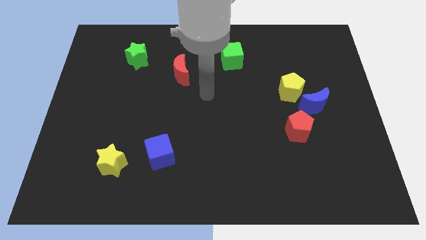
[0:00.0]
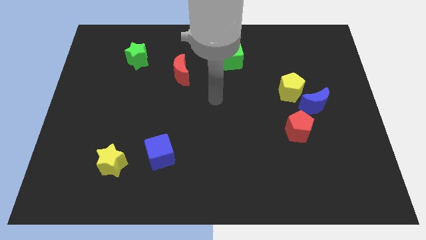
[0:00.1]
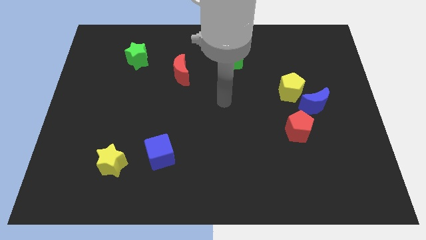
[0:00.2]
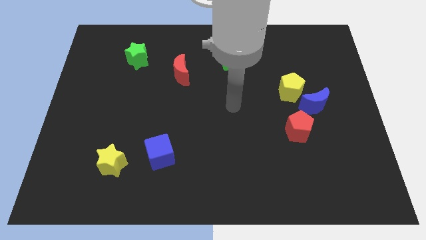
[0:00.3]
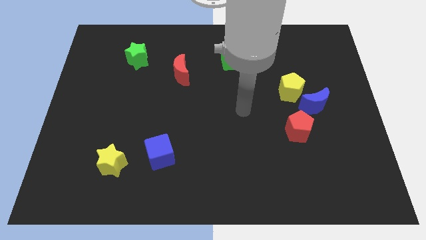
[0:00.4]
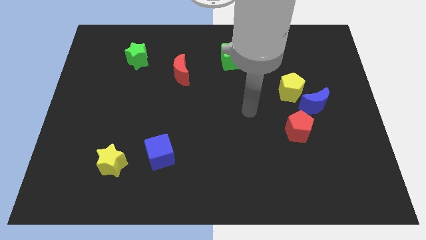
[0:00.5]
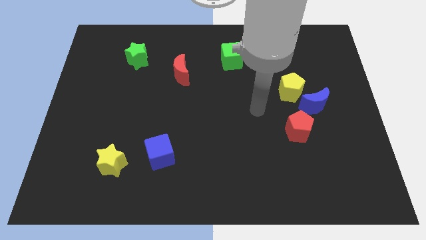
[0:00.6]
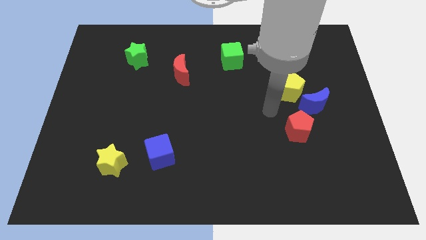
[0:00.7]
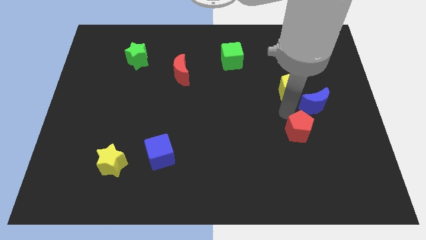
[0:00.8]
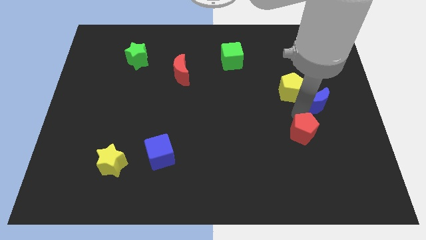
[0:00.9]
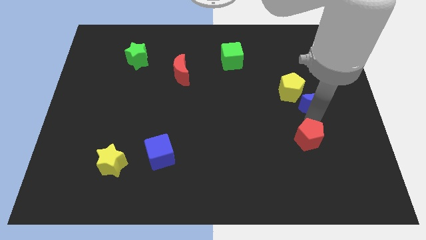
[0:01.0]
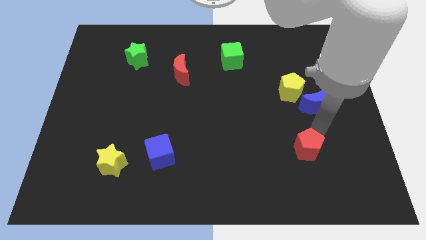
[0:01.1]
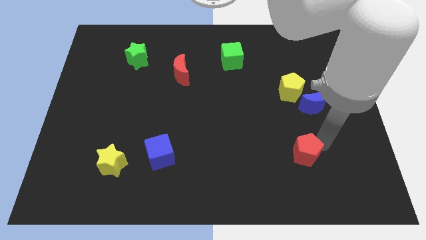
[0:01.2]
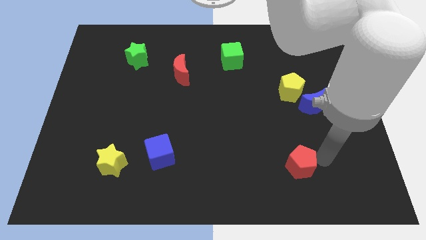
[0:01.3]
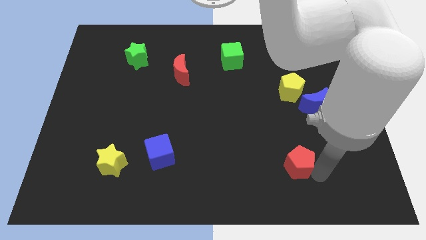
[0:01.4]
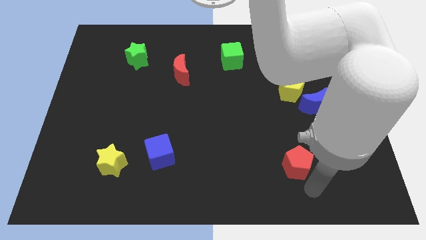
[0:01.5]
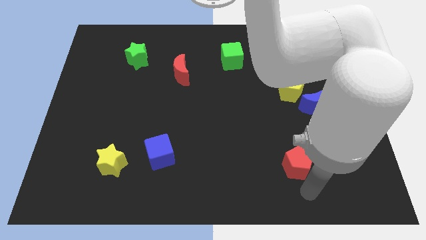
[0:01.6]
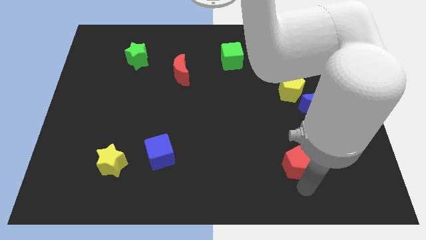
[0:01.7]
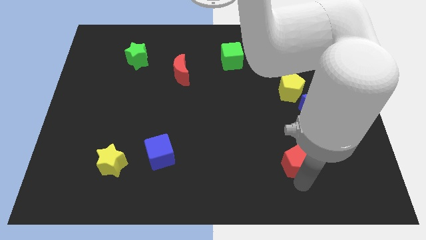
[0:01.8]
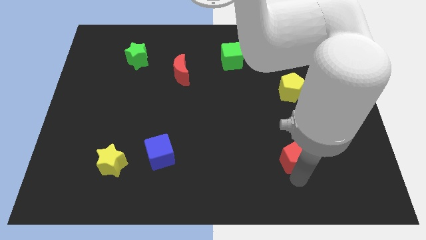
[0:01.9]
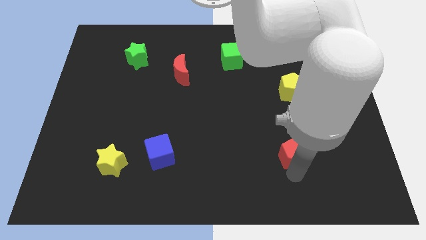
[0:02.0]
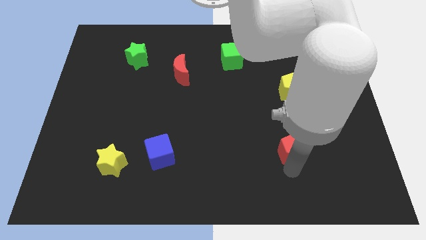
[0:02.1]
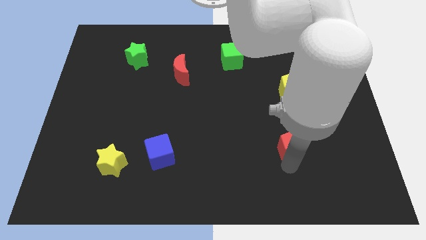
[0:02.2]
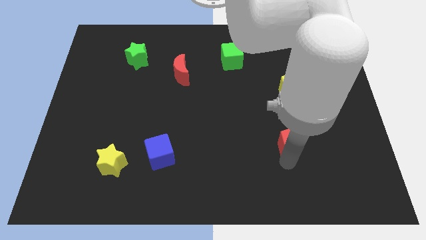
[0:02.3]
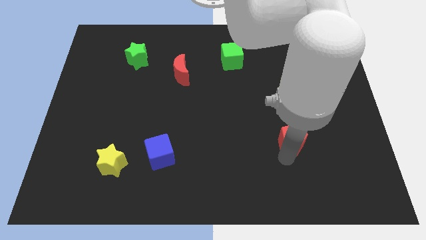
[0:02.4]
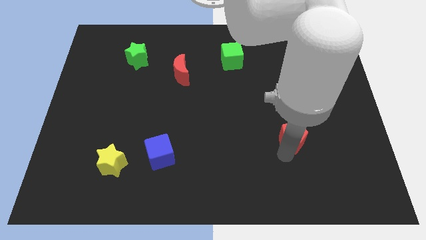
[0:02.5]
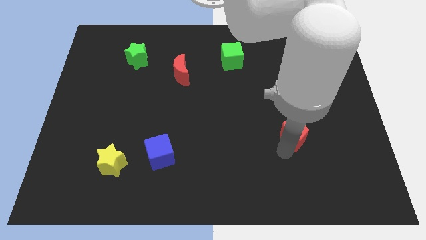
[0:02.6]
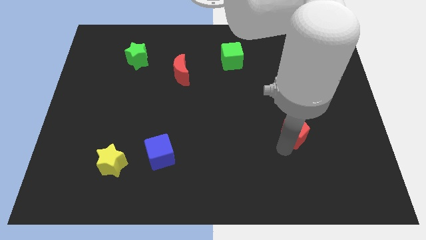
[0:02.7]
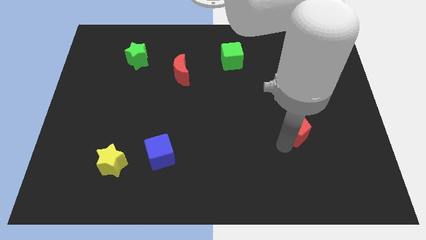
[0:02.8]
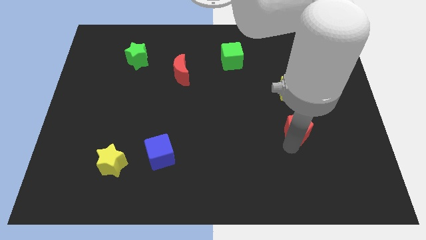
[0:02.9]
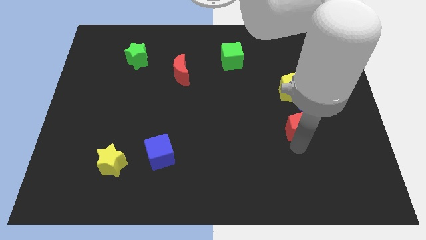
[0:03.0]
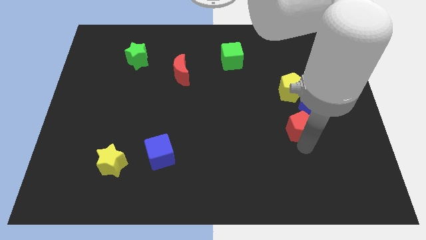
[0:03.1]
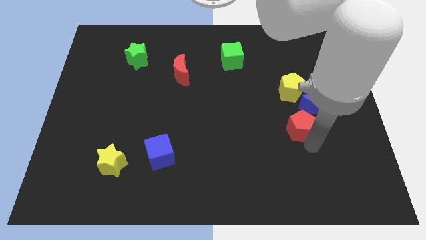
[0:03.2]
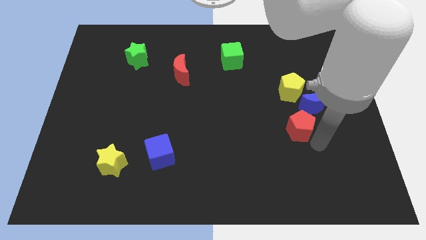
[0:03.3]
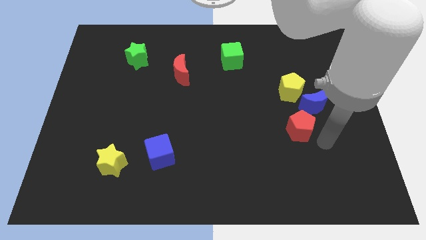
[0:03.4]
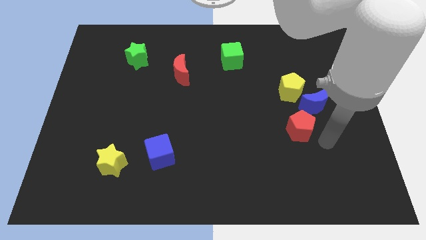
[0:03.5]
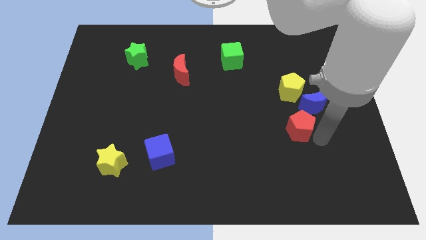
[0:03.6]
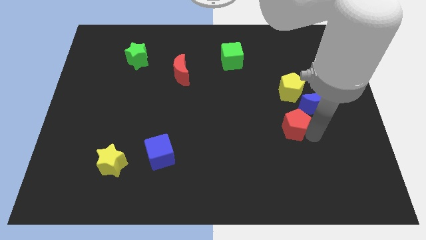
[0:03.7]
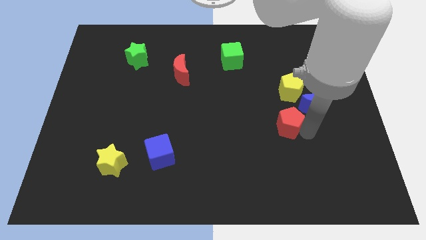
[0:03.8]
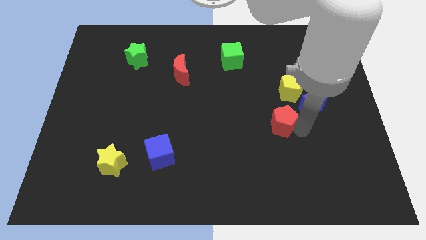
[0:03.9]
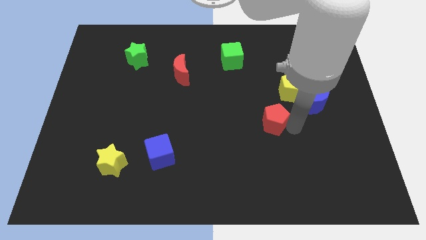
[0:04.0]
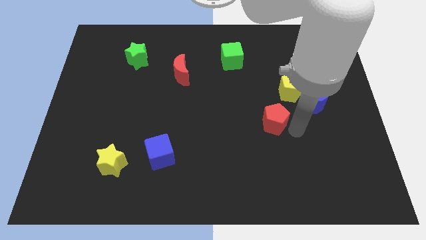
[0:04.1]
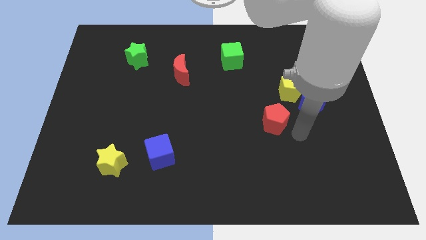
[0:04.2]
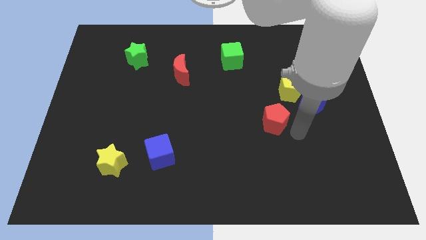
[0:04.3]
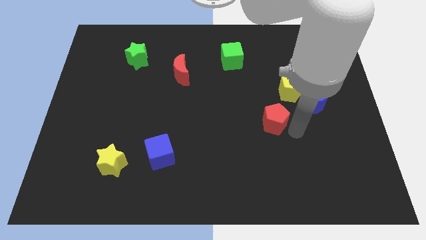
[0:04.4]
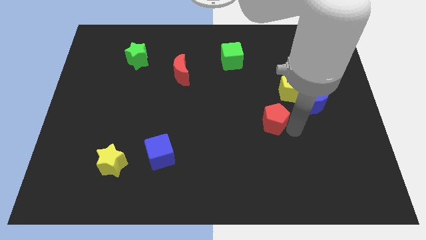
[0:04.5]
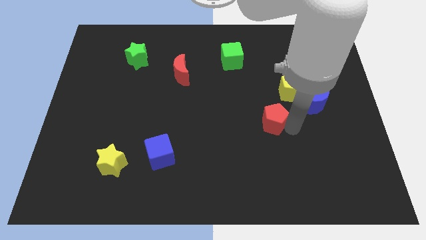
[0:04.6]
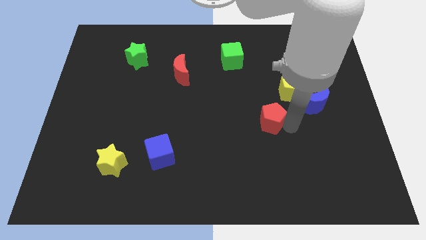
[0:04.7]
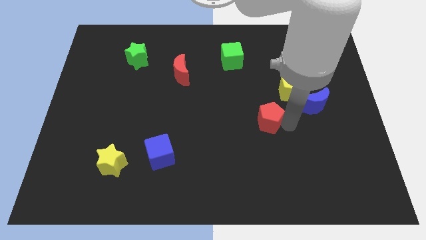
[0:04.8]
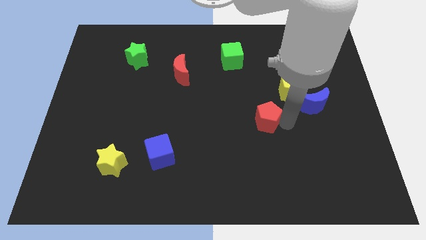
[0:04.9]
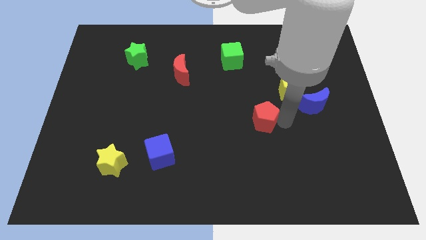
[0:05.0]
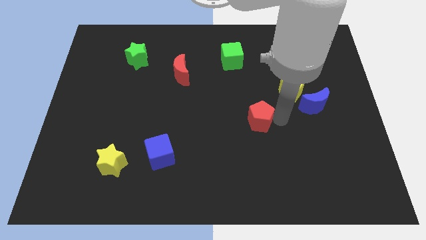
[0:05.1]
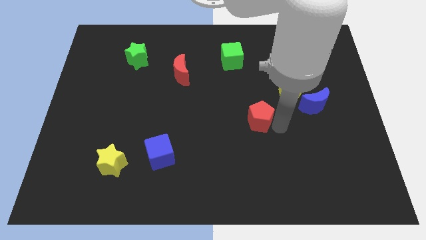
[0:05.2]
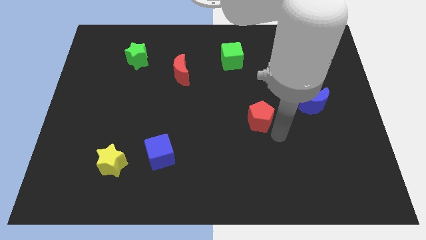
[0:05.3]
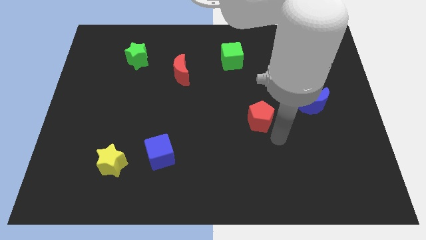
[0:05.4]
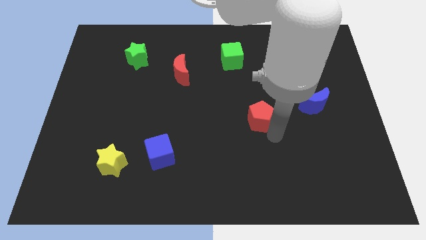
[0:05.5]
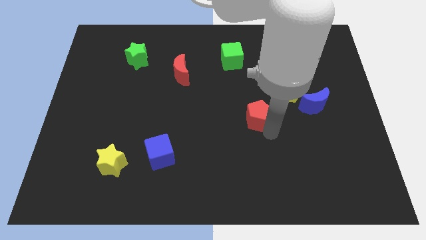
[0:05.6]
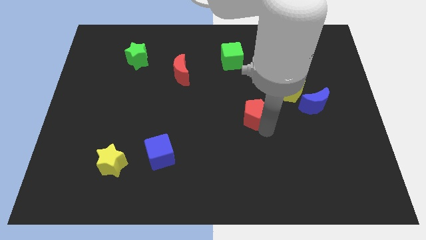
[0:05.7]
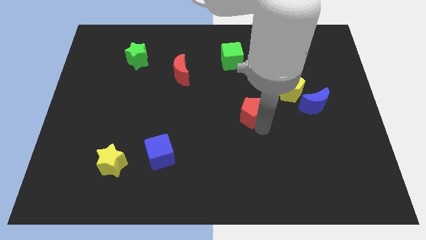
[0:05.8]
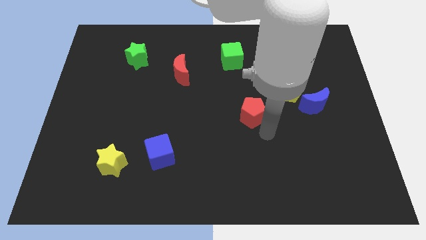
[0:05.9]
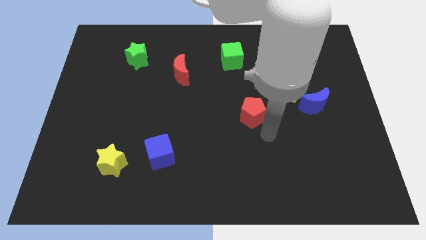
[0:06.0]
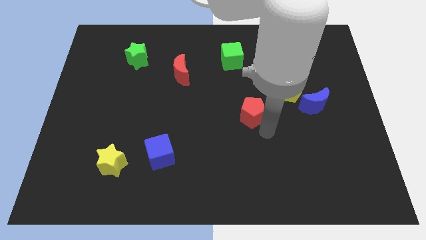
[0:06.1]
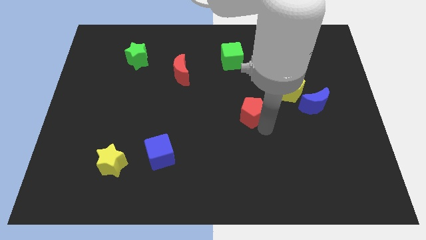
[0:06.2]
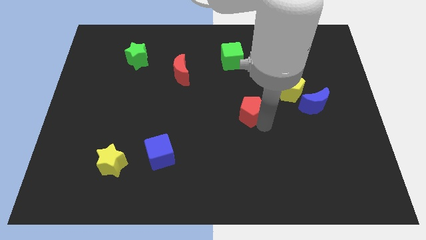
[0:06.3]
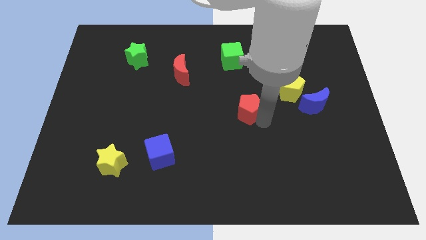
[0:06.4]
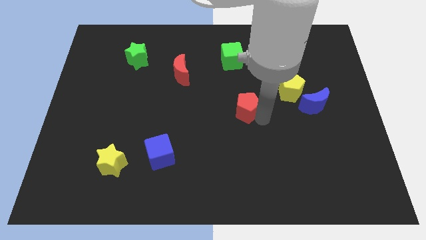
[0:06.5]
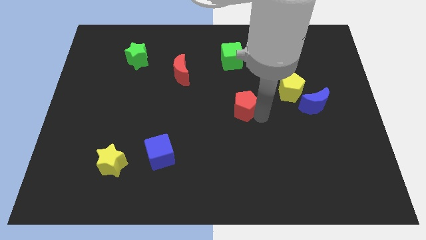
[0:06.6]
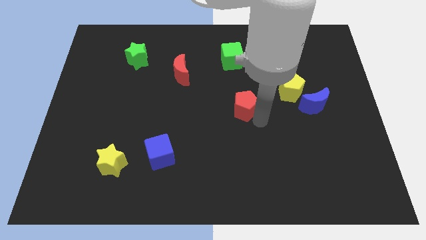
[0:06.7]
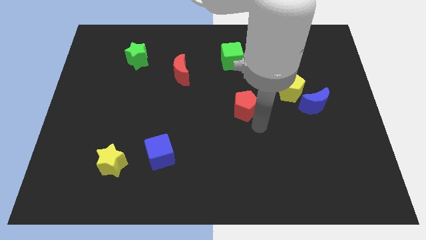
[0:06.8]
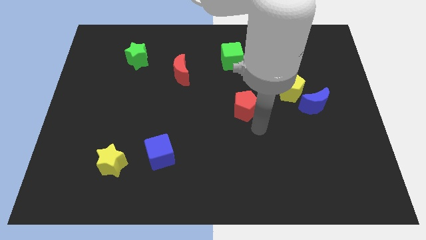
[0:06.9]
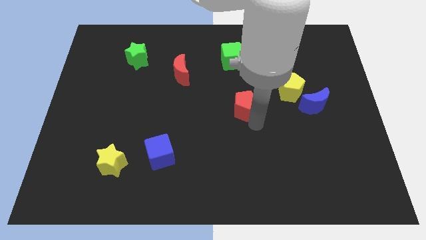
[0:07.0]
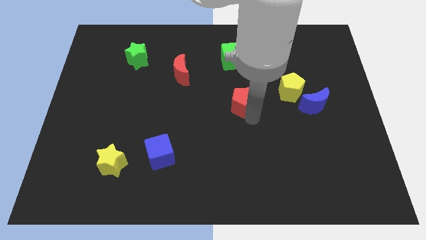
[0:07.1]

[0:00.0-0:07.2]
move the red pentagon below the green cube

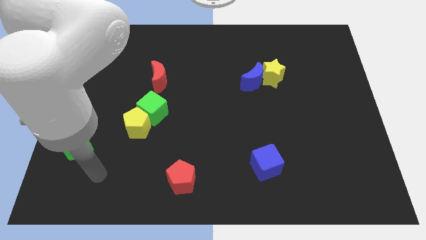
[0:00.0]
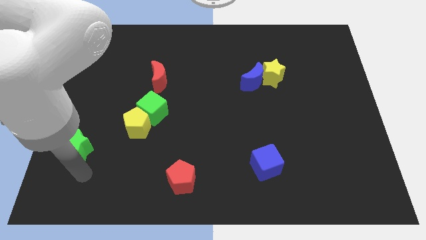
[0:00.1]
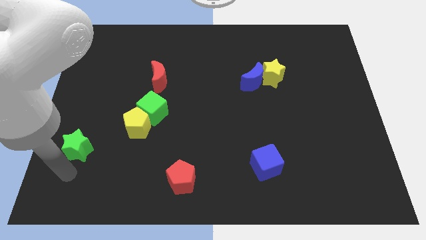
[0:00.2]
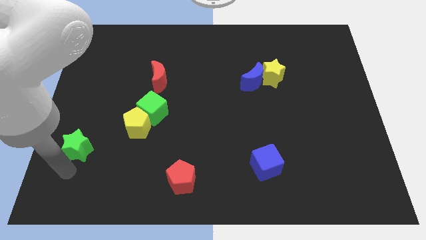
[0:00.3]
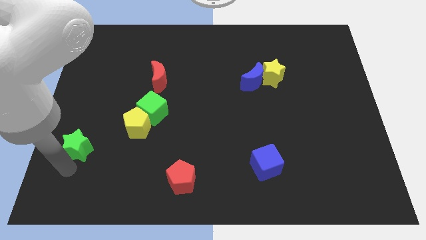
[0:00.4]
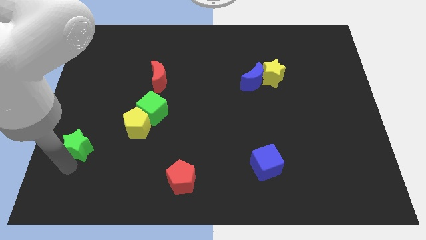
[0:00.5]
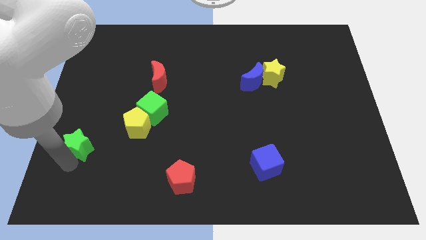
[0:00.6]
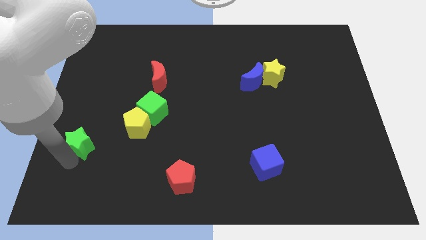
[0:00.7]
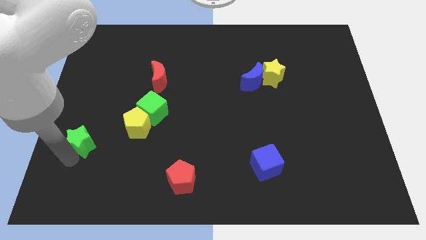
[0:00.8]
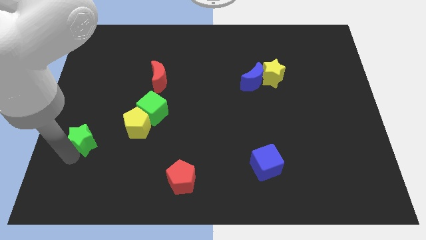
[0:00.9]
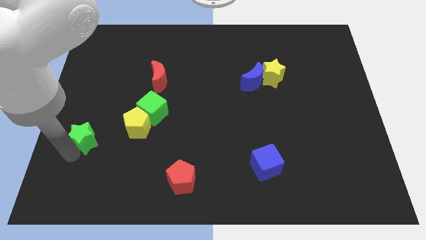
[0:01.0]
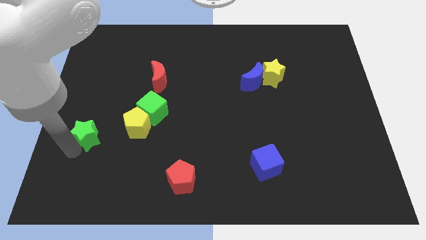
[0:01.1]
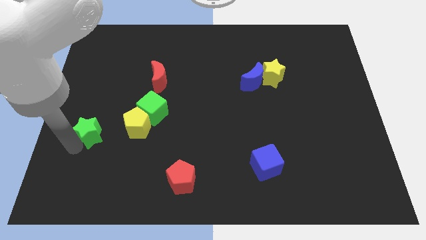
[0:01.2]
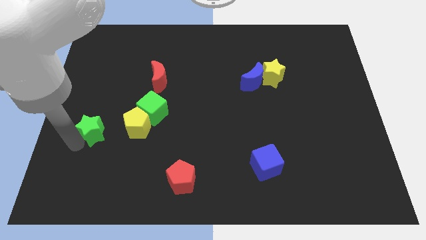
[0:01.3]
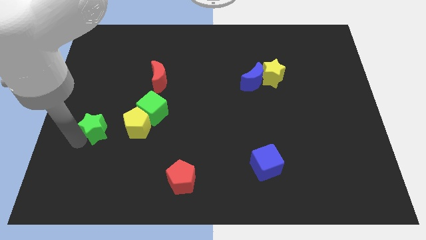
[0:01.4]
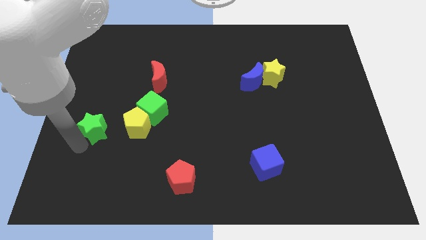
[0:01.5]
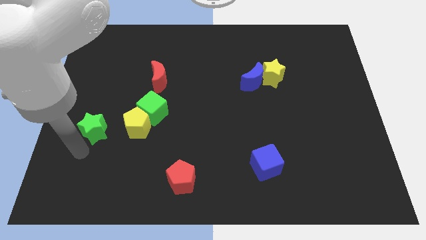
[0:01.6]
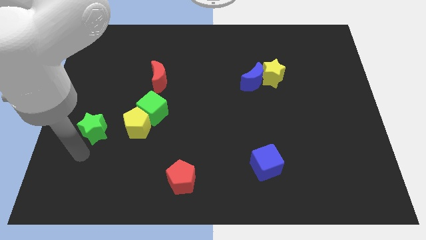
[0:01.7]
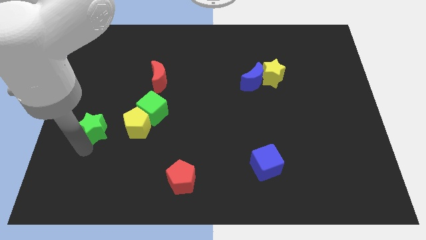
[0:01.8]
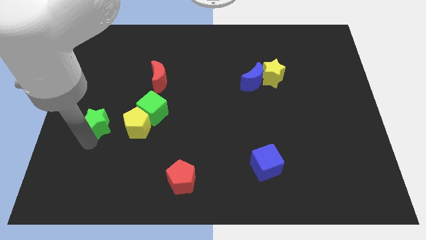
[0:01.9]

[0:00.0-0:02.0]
put the green star left of the green cube
